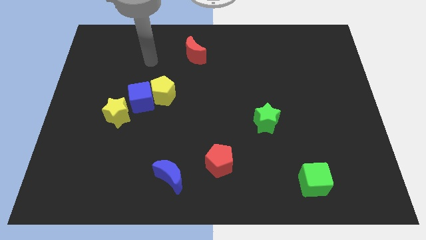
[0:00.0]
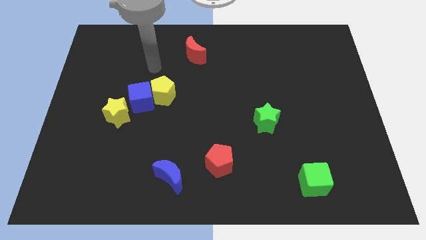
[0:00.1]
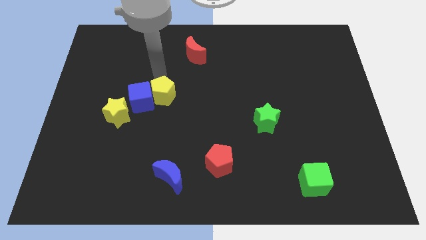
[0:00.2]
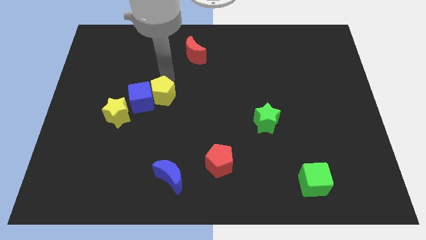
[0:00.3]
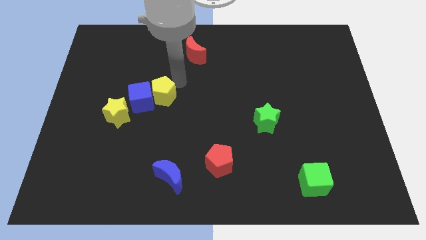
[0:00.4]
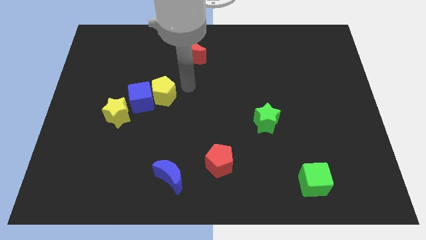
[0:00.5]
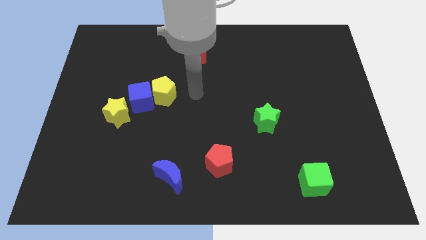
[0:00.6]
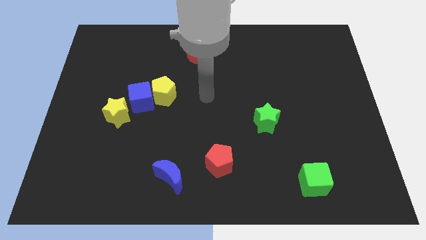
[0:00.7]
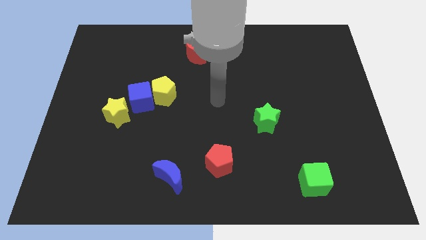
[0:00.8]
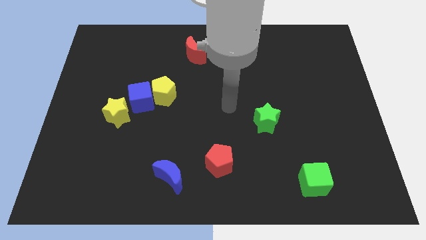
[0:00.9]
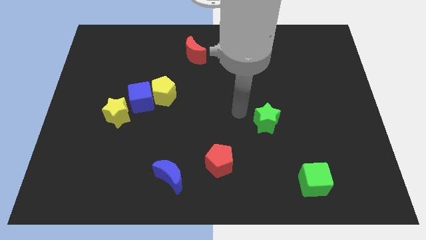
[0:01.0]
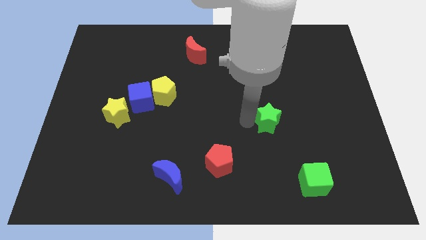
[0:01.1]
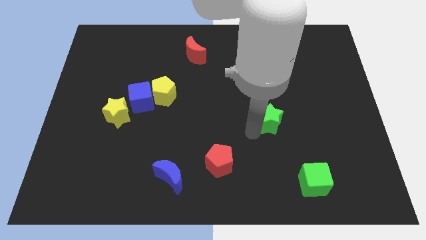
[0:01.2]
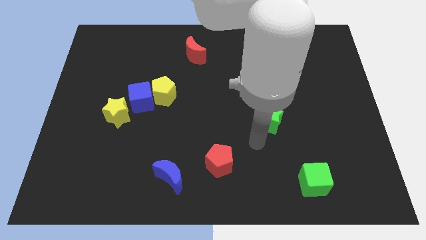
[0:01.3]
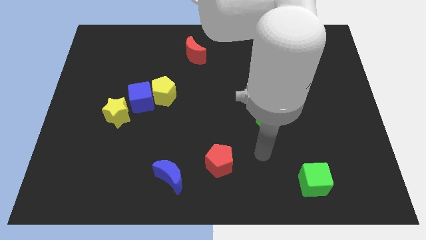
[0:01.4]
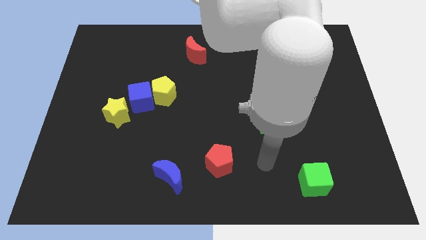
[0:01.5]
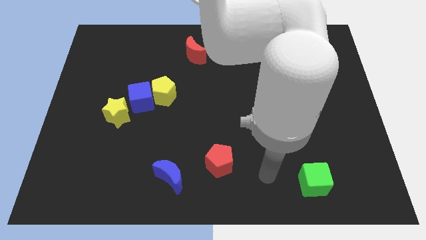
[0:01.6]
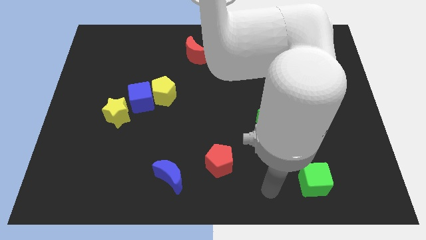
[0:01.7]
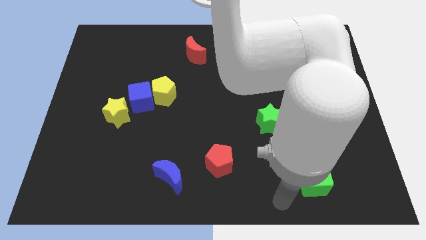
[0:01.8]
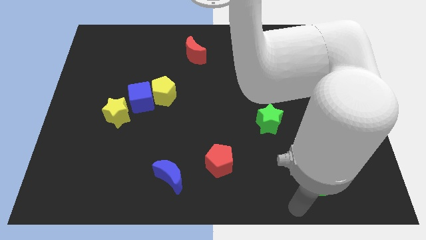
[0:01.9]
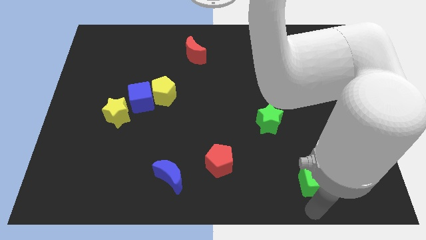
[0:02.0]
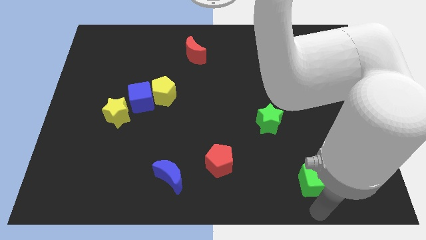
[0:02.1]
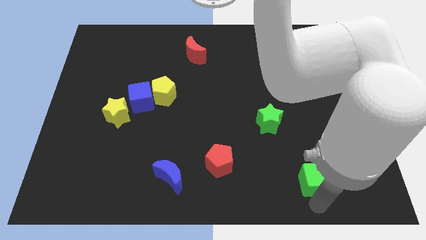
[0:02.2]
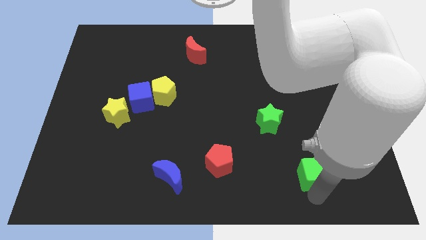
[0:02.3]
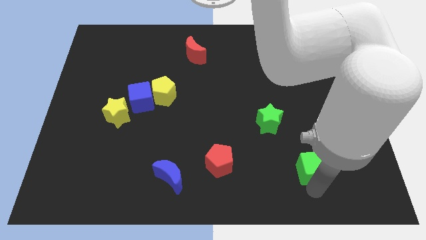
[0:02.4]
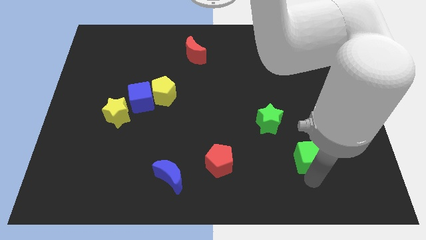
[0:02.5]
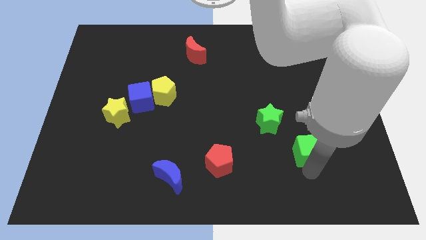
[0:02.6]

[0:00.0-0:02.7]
push the green cube upwards a little

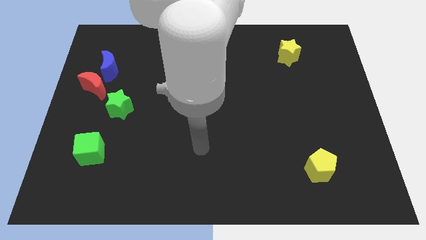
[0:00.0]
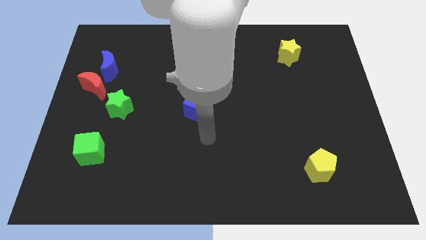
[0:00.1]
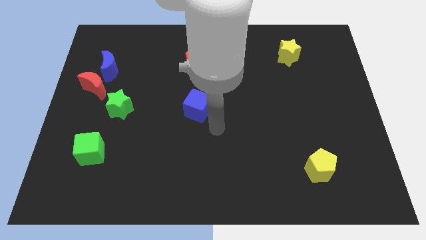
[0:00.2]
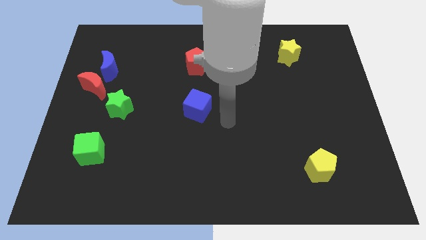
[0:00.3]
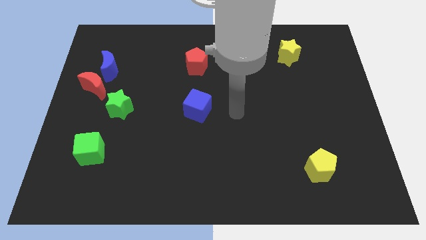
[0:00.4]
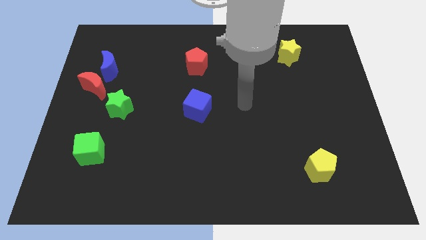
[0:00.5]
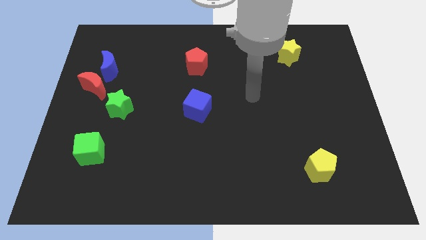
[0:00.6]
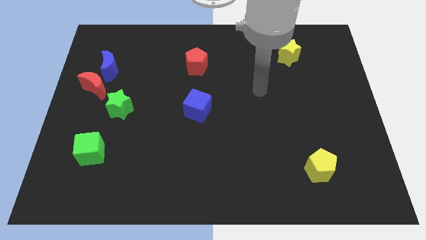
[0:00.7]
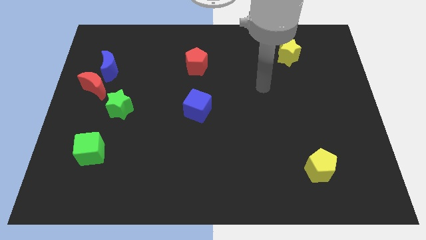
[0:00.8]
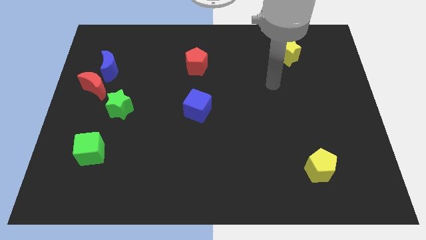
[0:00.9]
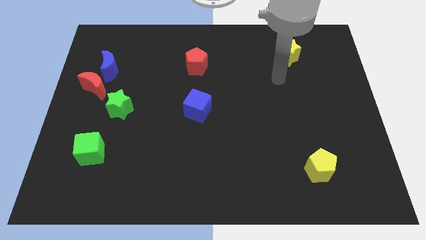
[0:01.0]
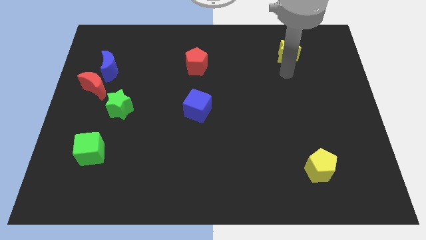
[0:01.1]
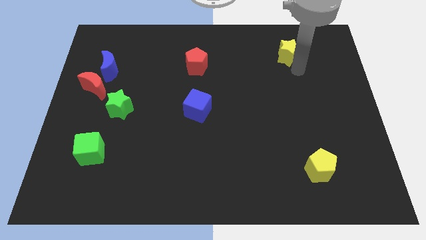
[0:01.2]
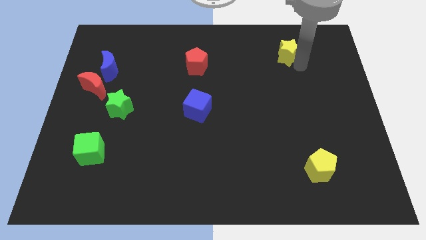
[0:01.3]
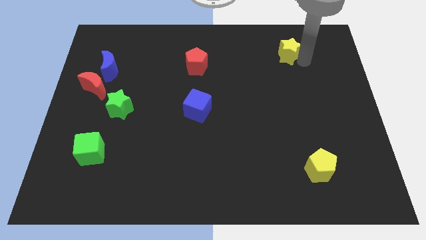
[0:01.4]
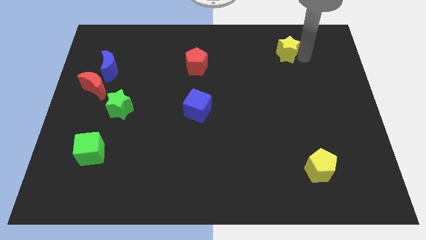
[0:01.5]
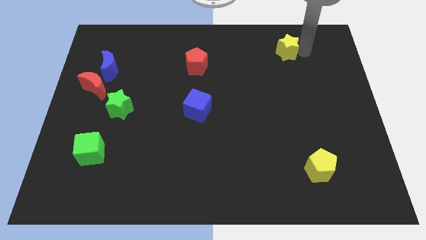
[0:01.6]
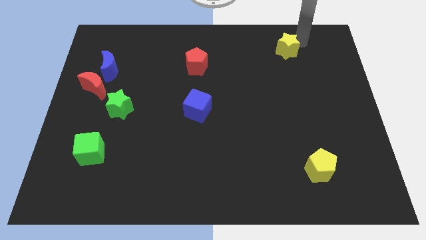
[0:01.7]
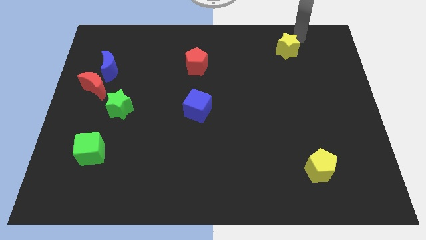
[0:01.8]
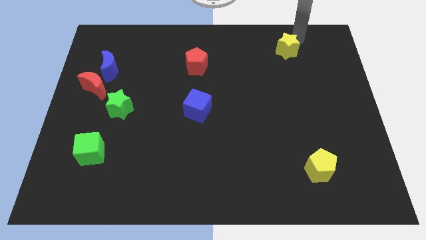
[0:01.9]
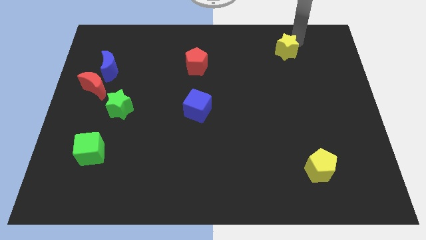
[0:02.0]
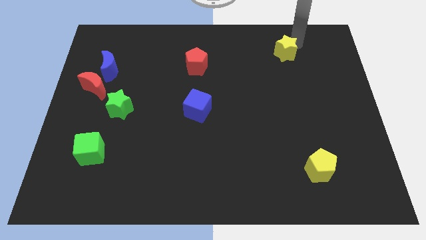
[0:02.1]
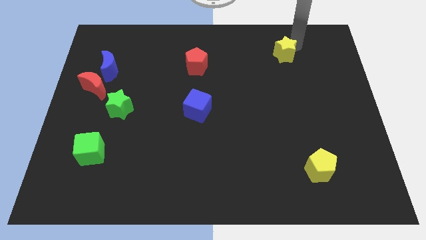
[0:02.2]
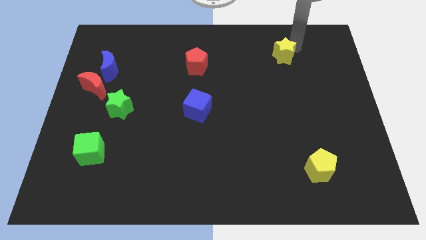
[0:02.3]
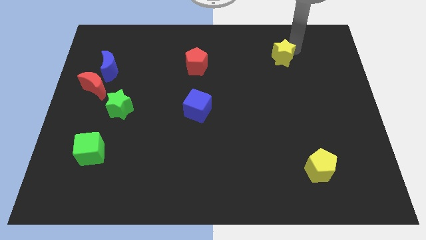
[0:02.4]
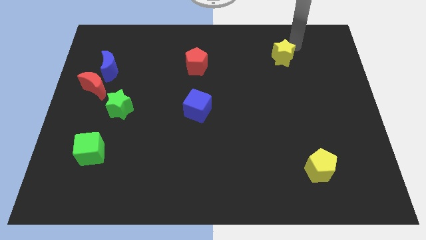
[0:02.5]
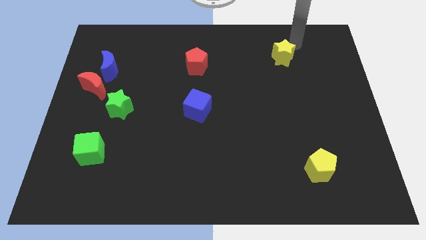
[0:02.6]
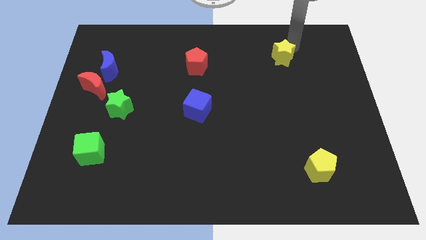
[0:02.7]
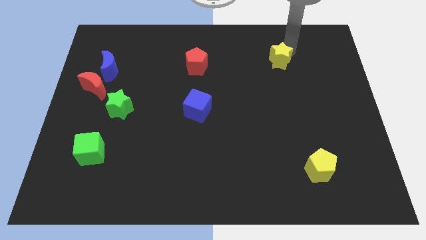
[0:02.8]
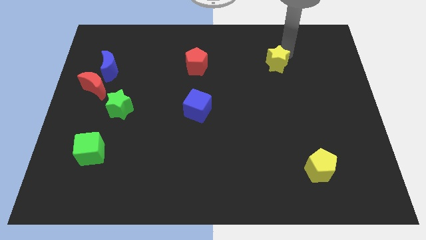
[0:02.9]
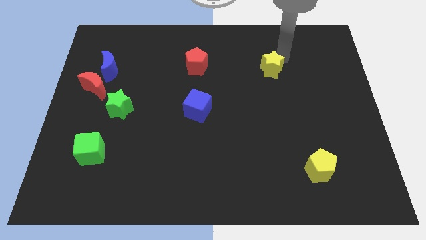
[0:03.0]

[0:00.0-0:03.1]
slightly slide the yellow star diagonally down and to the left

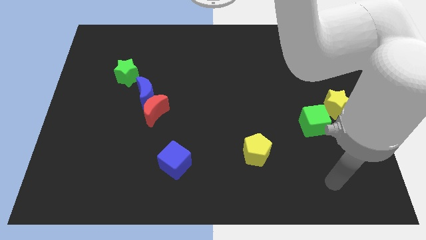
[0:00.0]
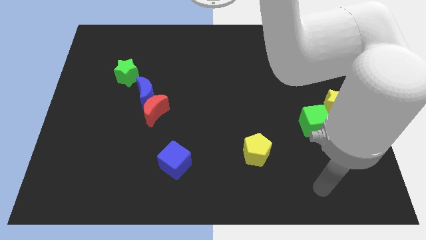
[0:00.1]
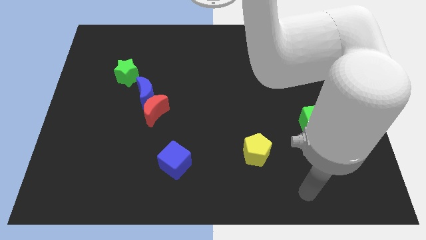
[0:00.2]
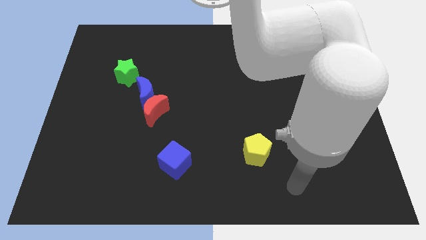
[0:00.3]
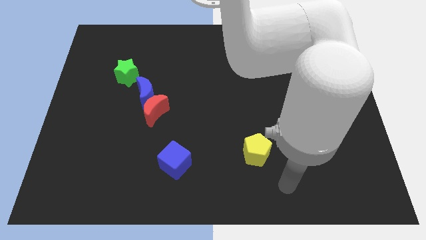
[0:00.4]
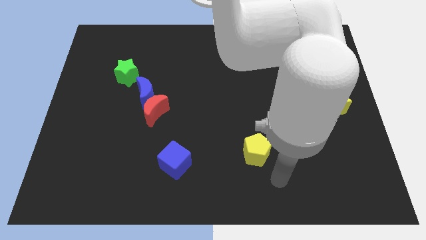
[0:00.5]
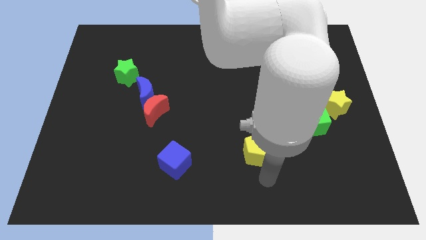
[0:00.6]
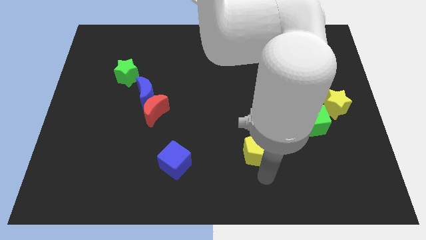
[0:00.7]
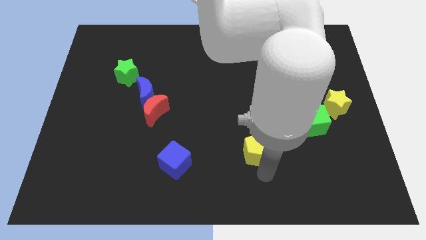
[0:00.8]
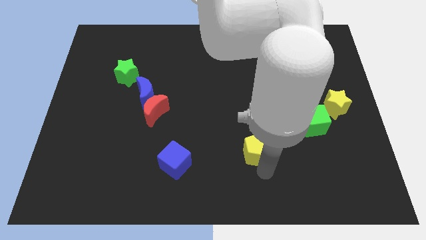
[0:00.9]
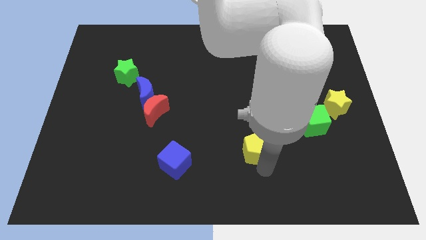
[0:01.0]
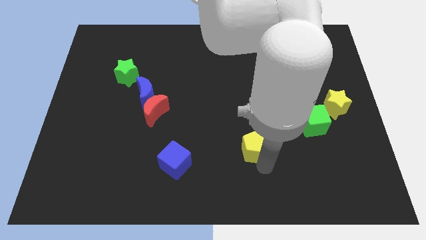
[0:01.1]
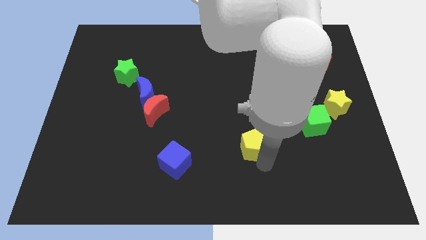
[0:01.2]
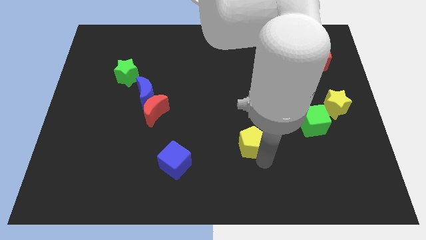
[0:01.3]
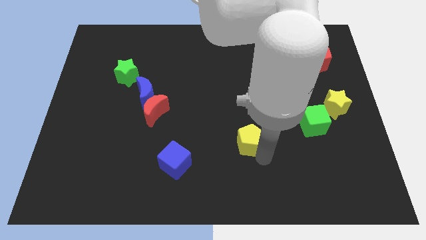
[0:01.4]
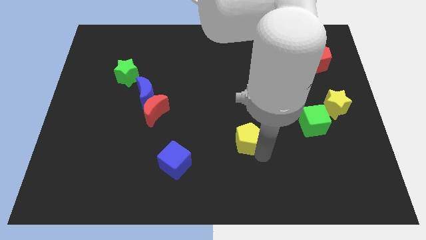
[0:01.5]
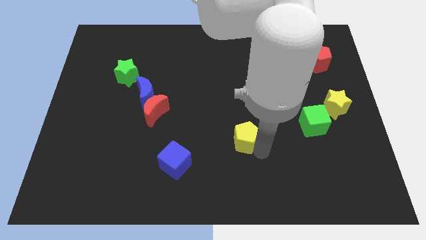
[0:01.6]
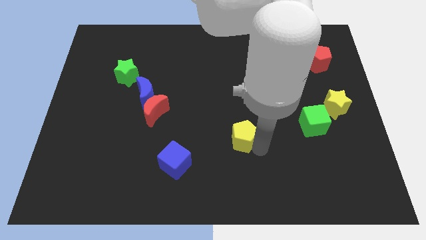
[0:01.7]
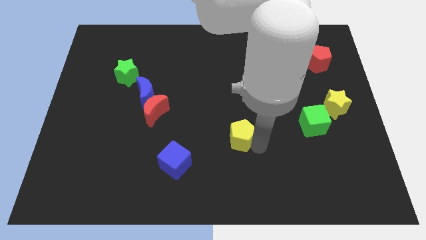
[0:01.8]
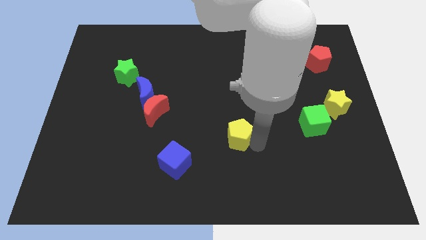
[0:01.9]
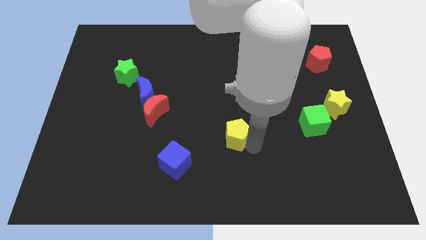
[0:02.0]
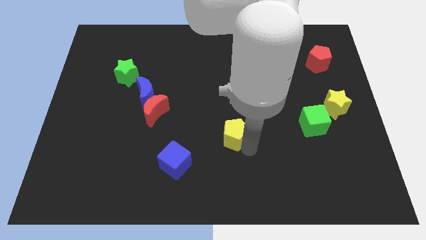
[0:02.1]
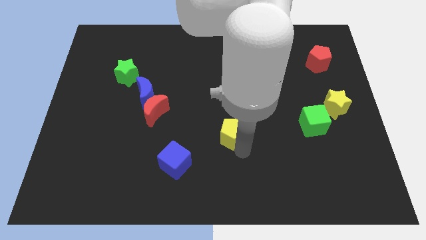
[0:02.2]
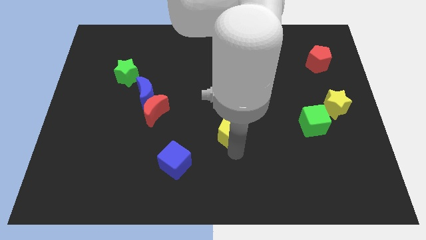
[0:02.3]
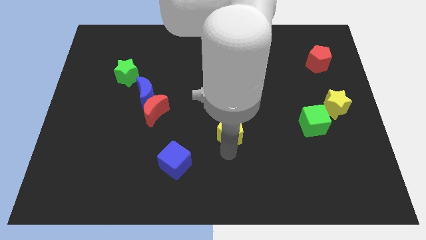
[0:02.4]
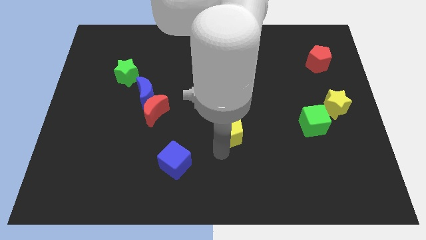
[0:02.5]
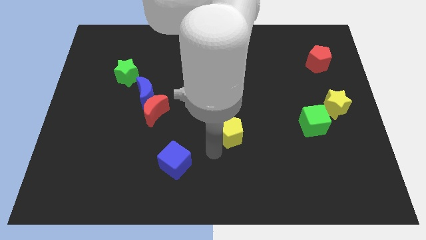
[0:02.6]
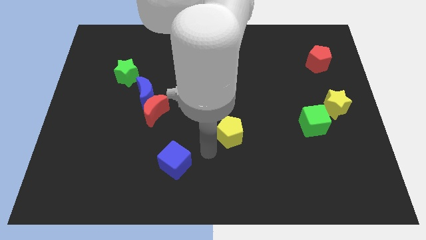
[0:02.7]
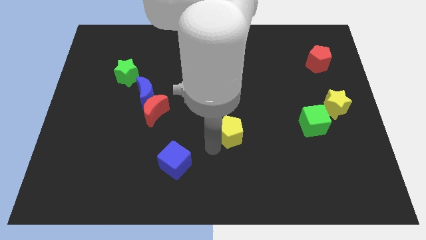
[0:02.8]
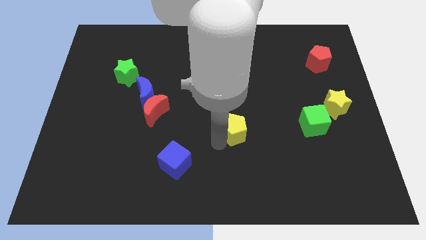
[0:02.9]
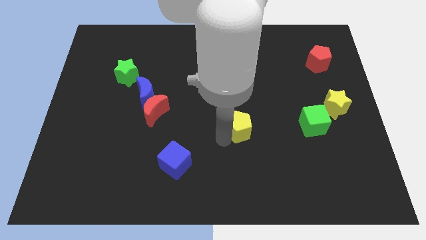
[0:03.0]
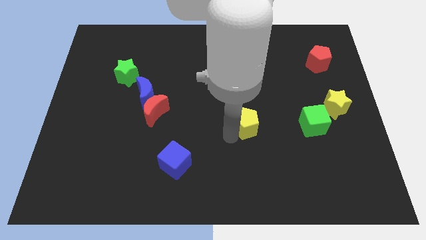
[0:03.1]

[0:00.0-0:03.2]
push the yellow pentagon upwards somewhat
